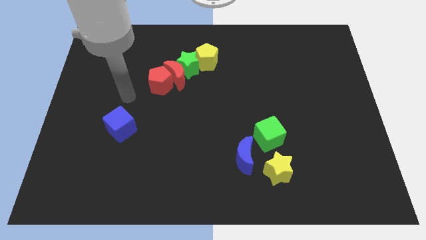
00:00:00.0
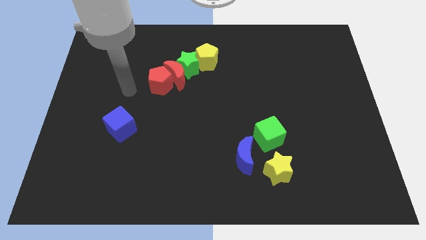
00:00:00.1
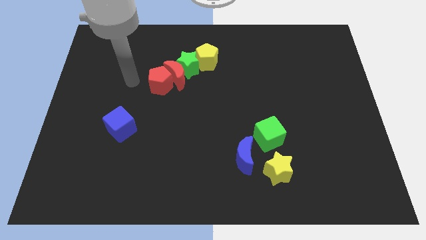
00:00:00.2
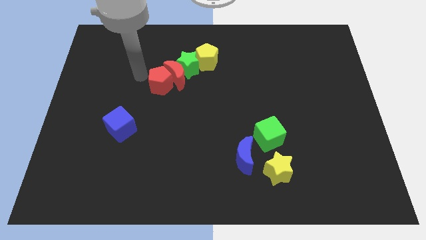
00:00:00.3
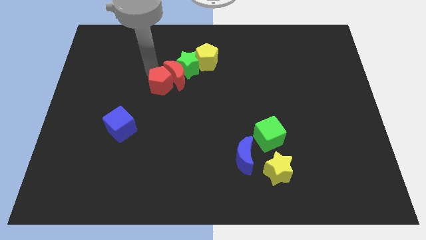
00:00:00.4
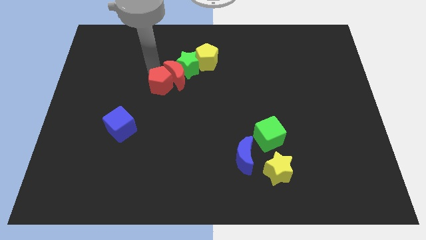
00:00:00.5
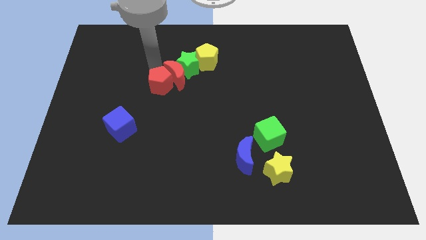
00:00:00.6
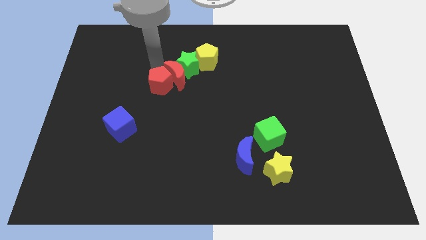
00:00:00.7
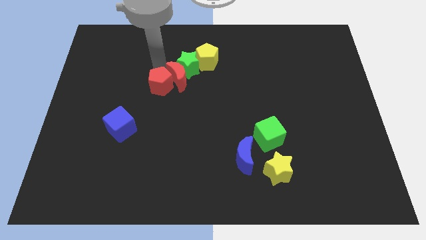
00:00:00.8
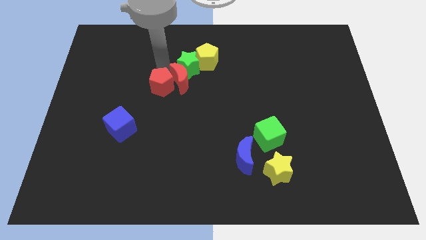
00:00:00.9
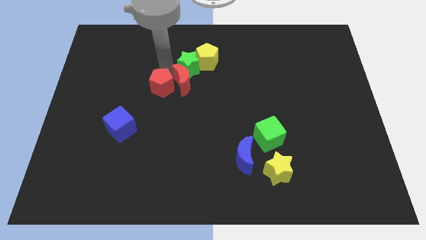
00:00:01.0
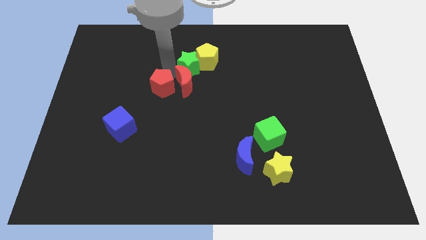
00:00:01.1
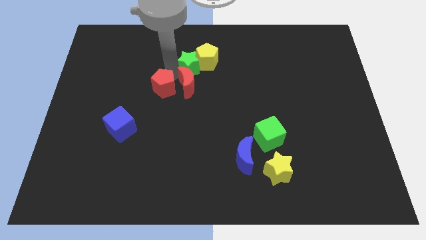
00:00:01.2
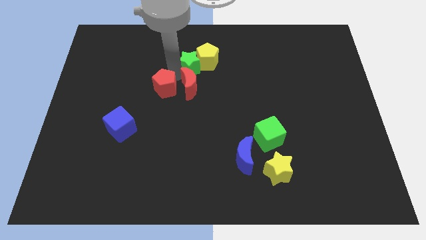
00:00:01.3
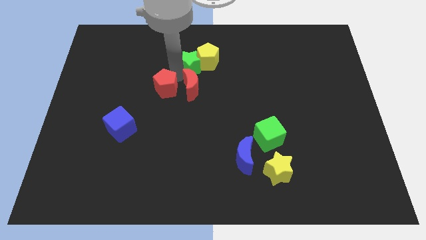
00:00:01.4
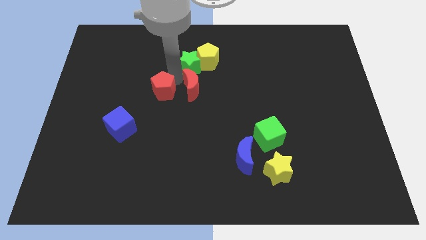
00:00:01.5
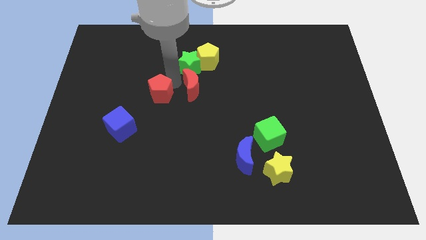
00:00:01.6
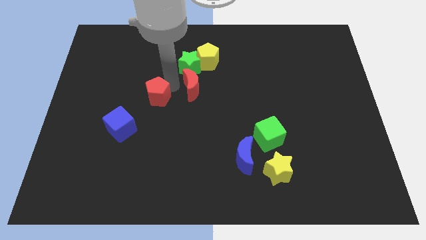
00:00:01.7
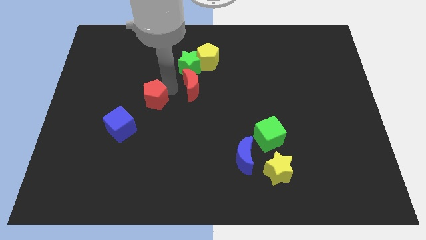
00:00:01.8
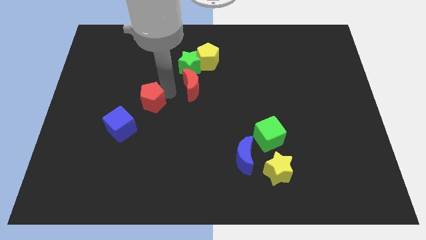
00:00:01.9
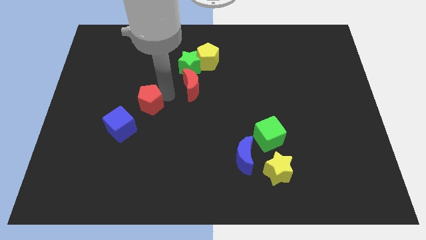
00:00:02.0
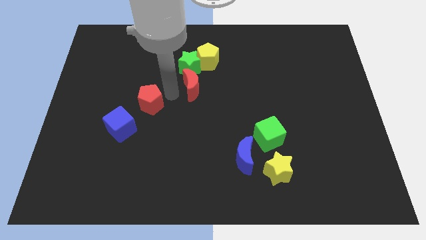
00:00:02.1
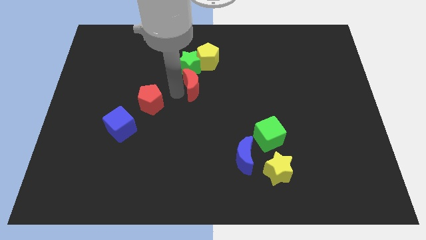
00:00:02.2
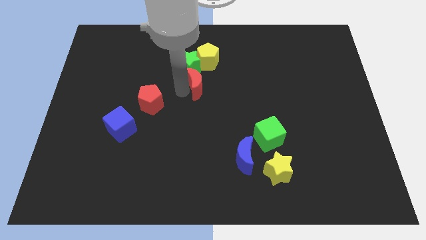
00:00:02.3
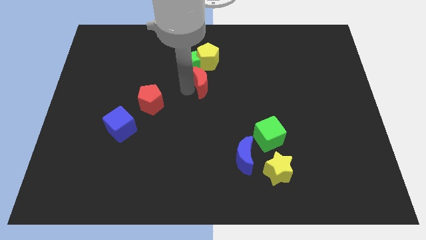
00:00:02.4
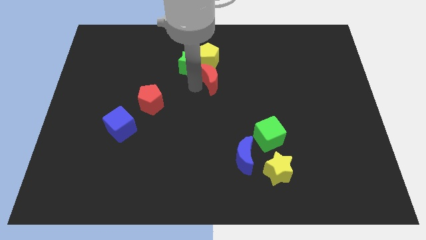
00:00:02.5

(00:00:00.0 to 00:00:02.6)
slightly slide the red moon to the right

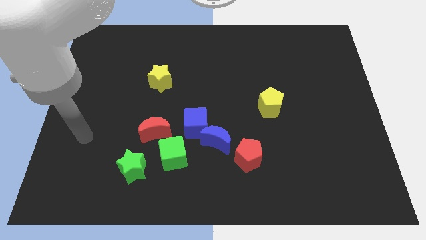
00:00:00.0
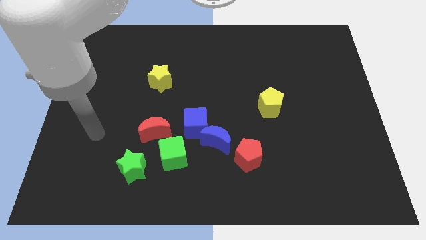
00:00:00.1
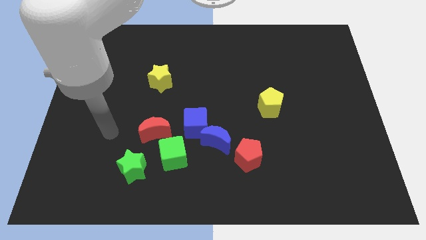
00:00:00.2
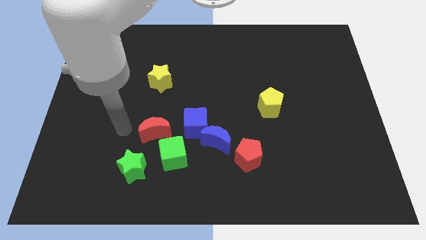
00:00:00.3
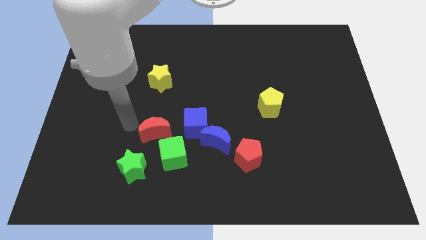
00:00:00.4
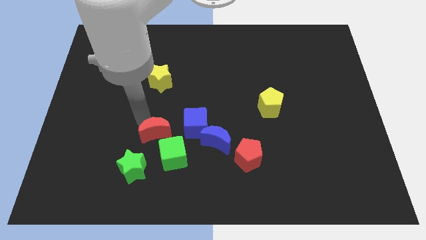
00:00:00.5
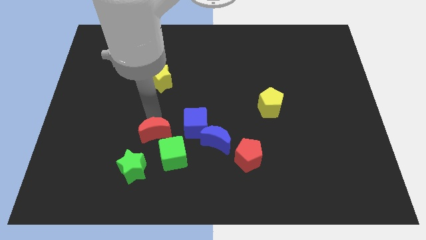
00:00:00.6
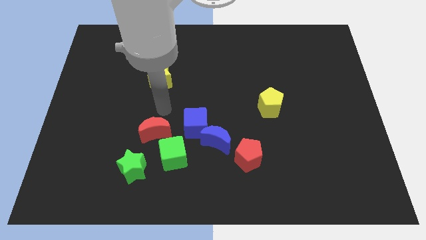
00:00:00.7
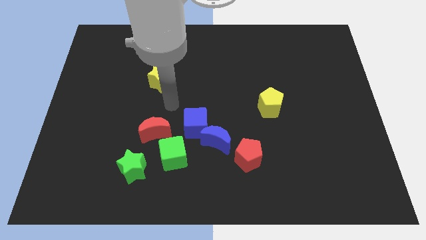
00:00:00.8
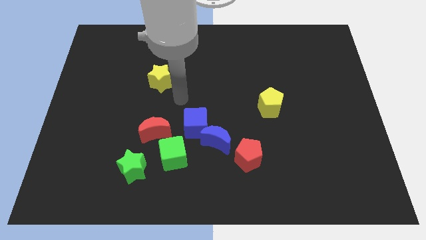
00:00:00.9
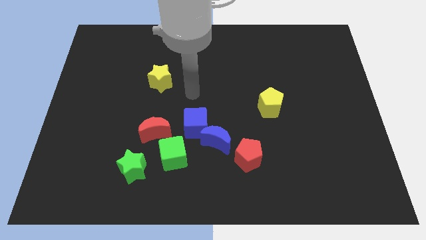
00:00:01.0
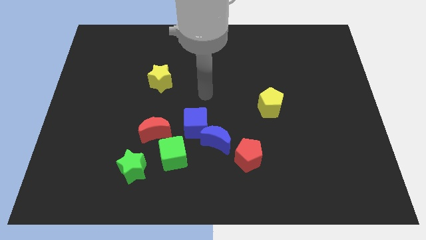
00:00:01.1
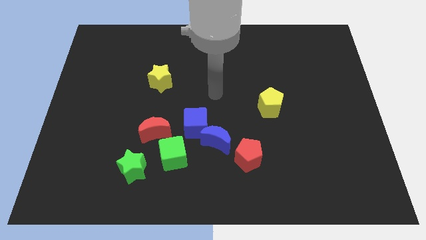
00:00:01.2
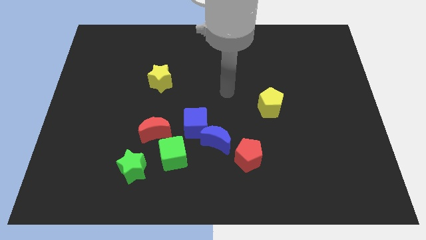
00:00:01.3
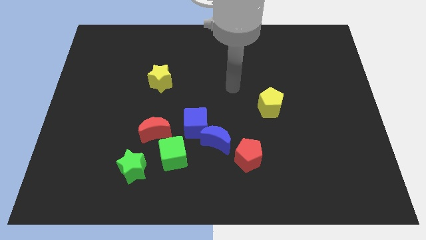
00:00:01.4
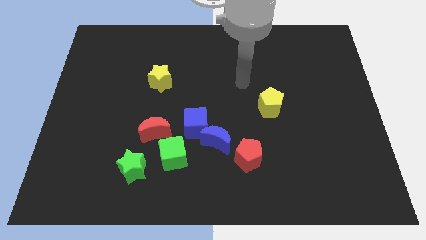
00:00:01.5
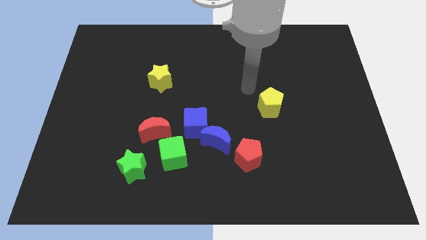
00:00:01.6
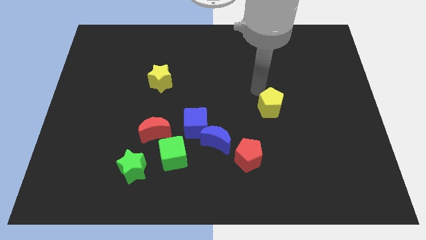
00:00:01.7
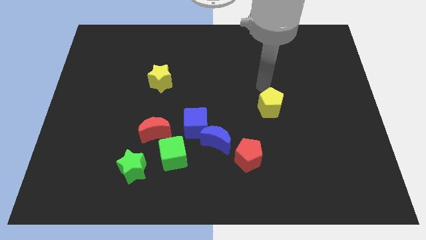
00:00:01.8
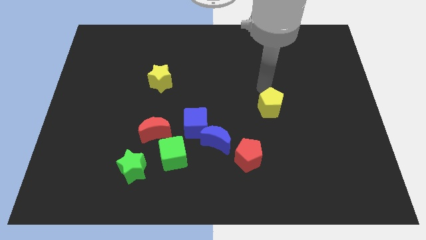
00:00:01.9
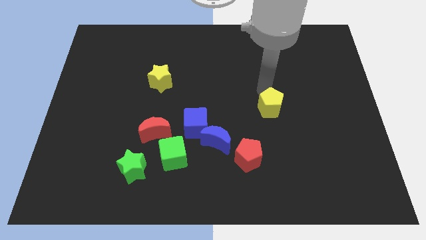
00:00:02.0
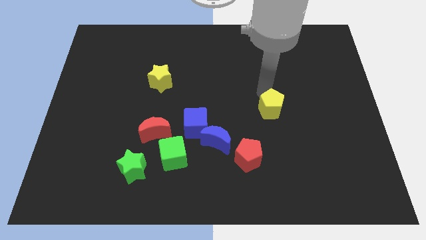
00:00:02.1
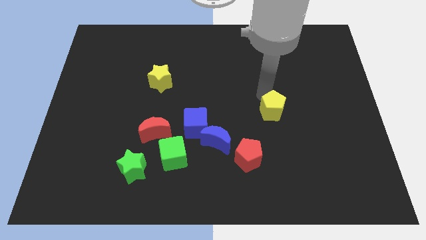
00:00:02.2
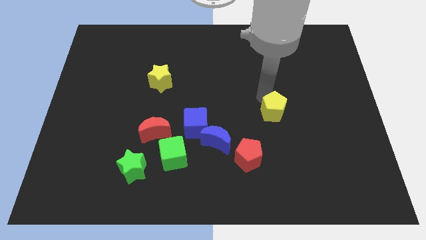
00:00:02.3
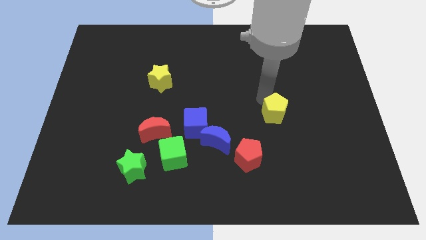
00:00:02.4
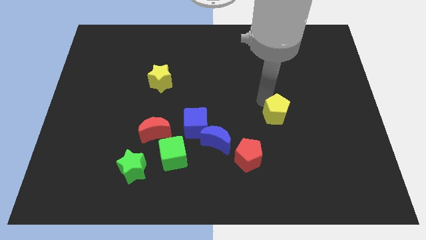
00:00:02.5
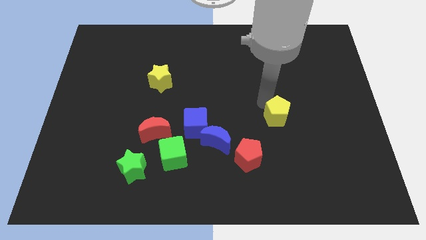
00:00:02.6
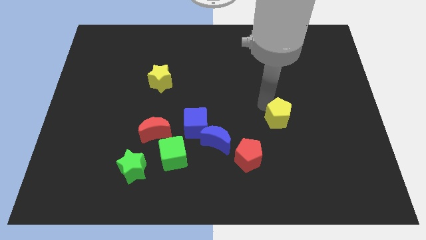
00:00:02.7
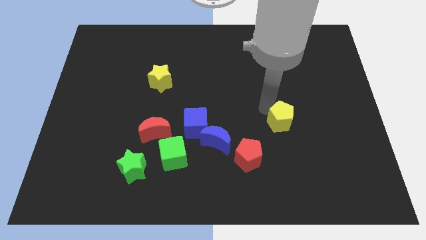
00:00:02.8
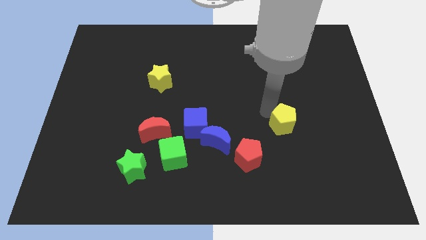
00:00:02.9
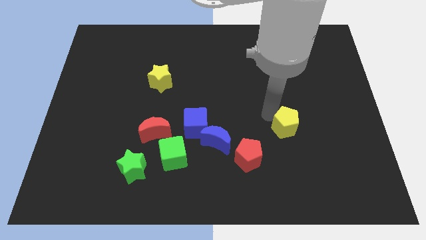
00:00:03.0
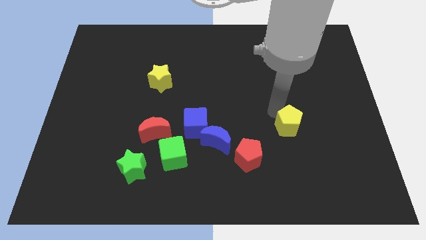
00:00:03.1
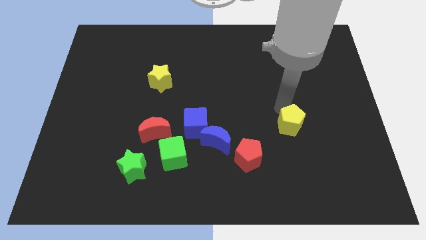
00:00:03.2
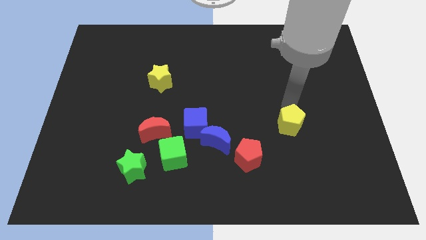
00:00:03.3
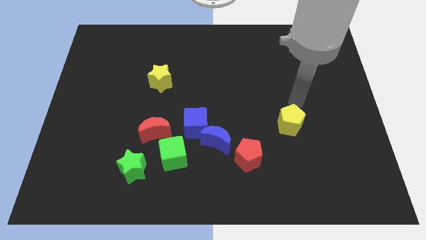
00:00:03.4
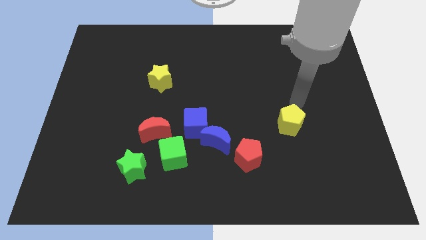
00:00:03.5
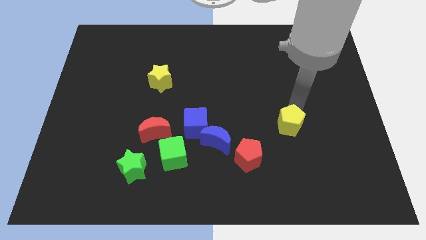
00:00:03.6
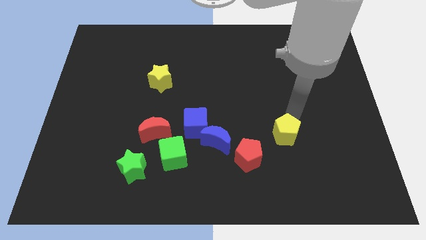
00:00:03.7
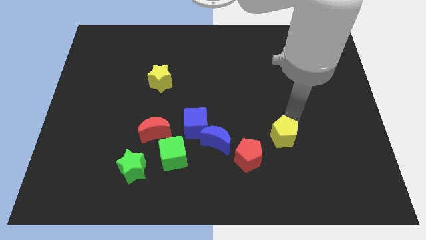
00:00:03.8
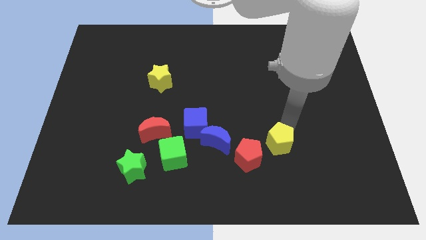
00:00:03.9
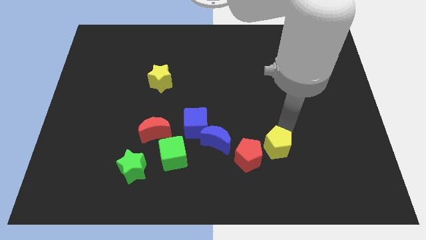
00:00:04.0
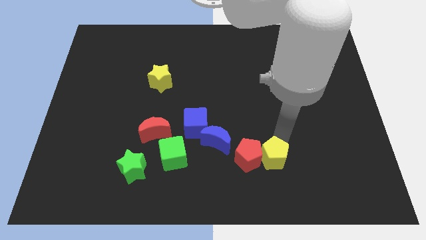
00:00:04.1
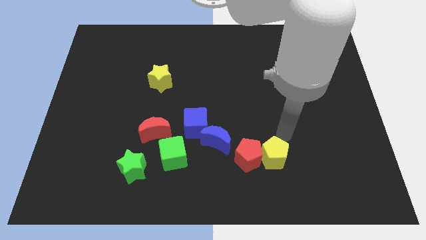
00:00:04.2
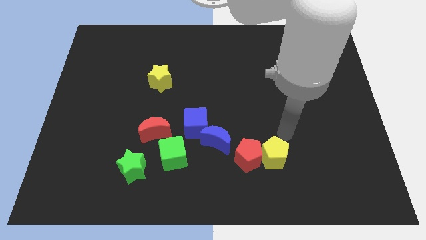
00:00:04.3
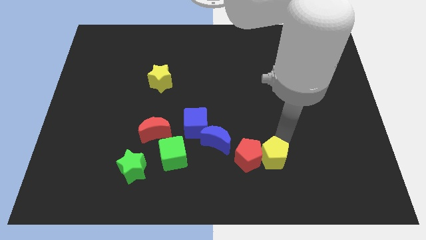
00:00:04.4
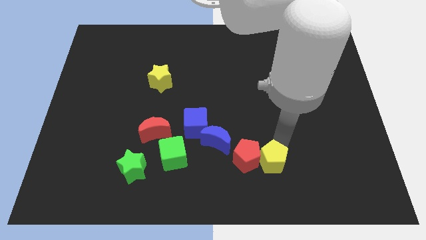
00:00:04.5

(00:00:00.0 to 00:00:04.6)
slide the yellow pentagon a little down and then to the left

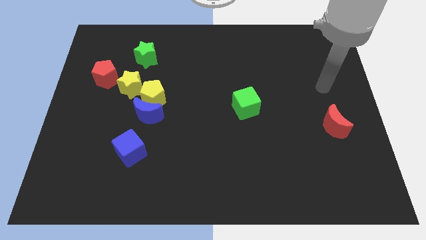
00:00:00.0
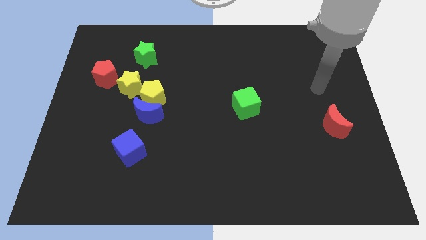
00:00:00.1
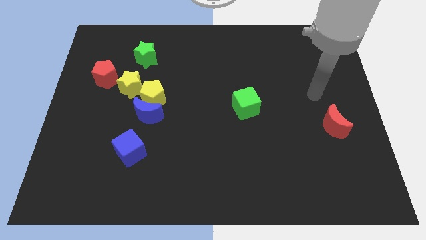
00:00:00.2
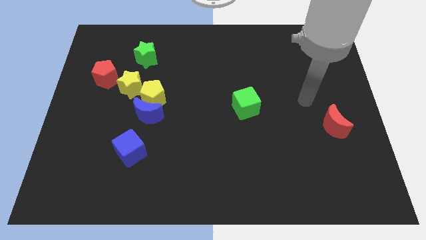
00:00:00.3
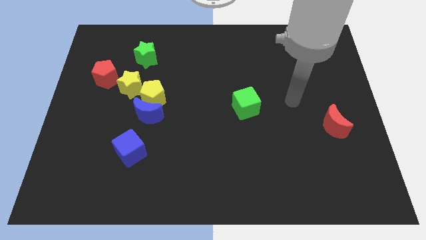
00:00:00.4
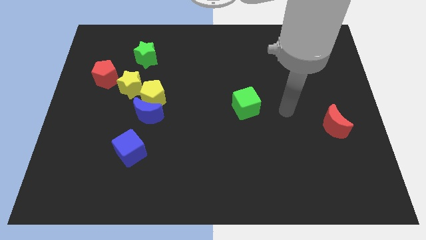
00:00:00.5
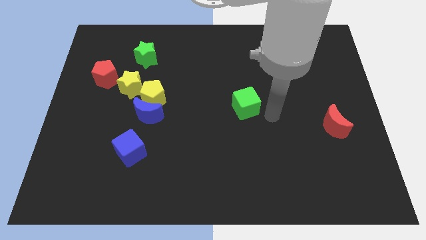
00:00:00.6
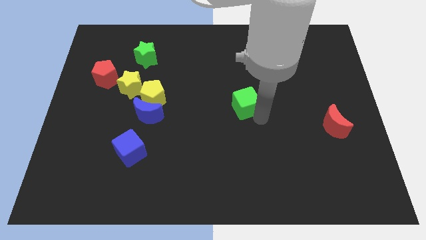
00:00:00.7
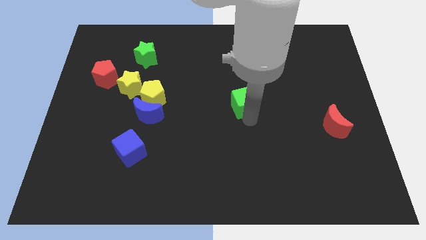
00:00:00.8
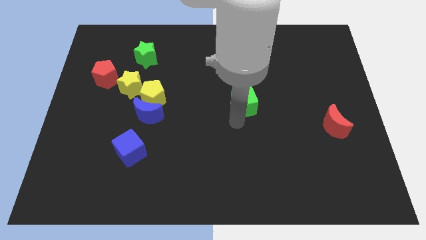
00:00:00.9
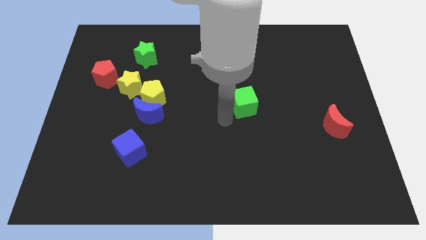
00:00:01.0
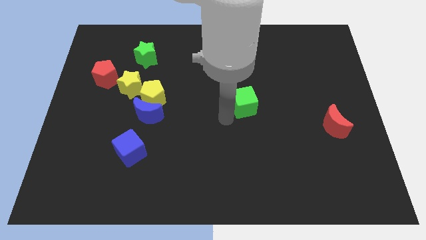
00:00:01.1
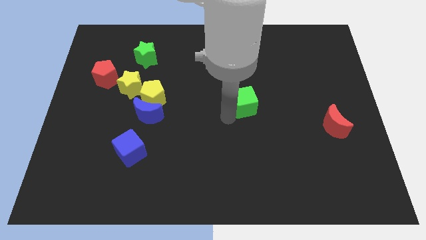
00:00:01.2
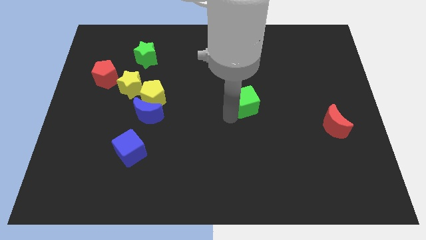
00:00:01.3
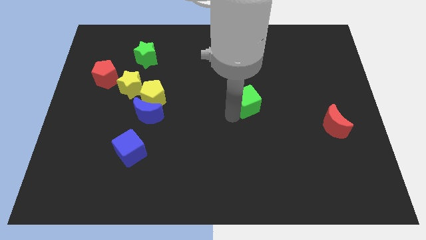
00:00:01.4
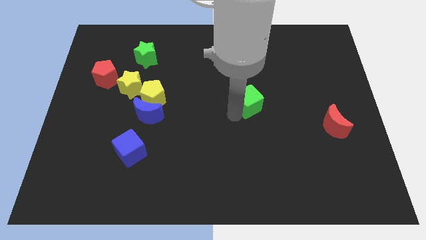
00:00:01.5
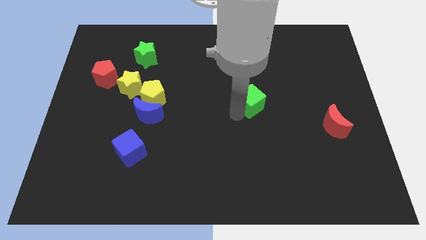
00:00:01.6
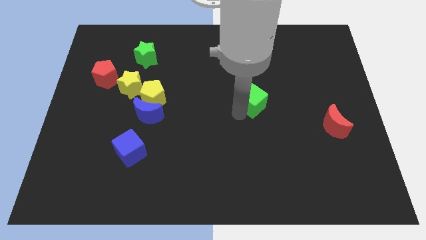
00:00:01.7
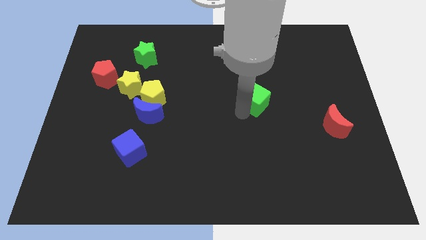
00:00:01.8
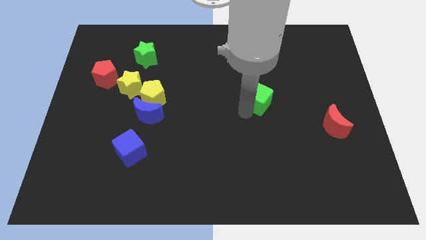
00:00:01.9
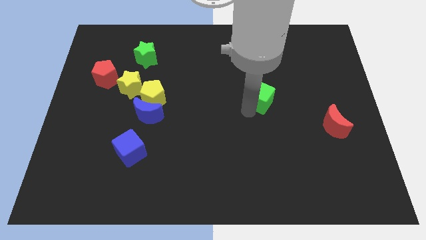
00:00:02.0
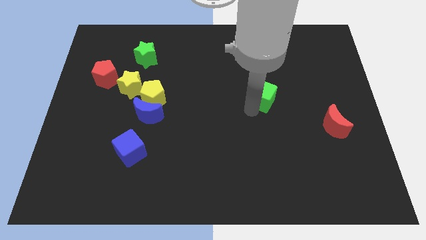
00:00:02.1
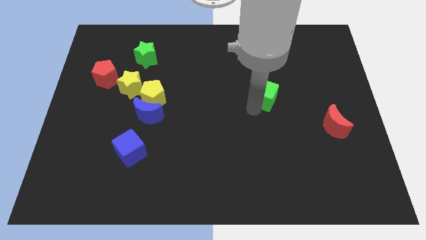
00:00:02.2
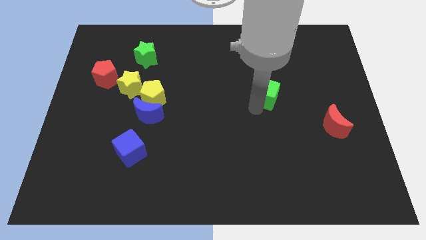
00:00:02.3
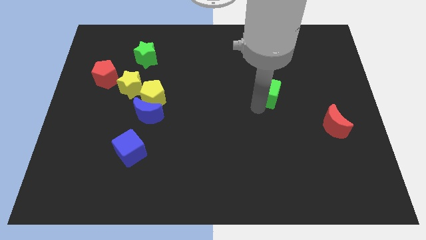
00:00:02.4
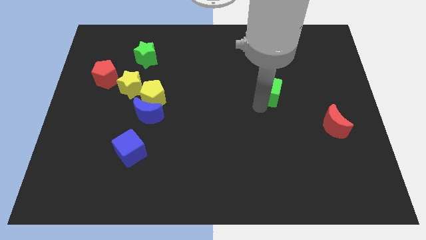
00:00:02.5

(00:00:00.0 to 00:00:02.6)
slightly move the green cube upwards and to the right diagonally
